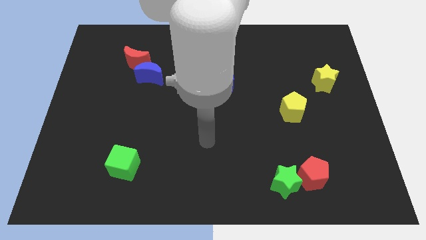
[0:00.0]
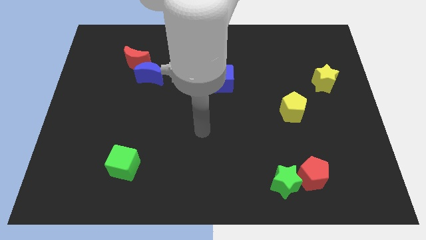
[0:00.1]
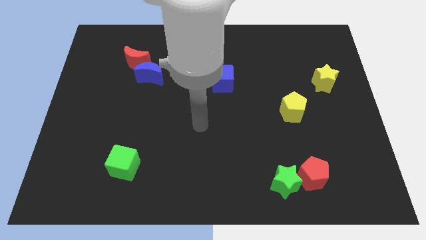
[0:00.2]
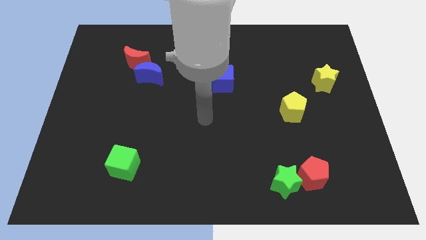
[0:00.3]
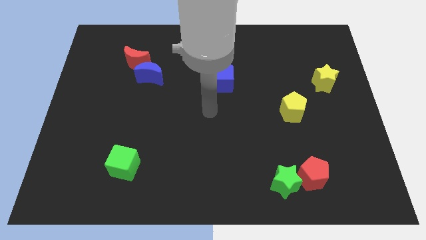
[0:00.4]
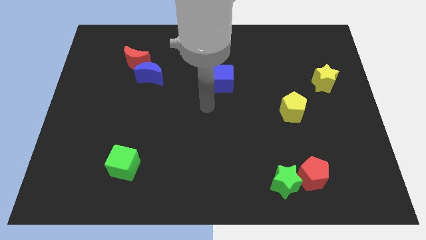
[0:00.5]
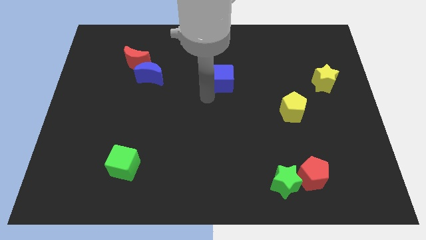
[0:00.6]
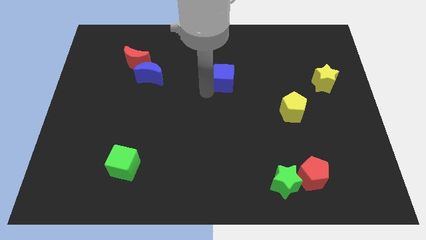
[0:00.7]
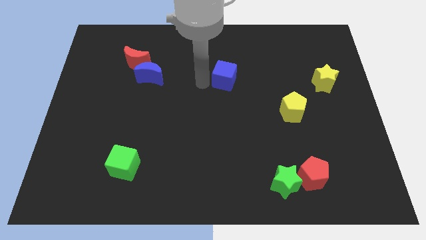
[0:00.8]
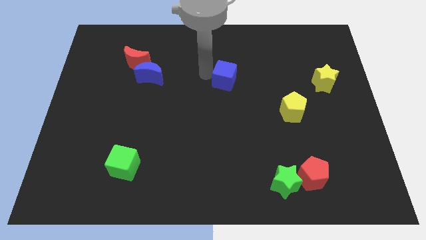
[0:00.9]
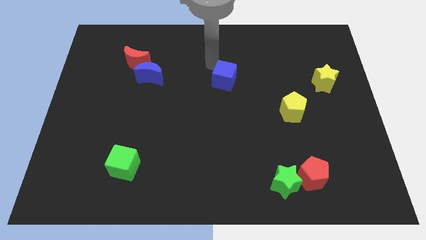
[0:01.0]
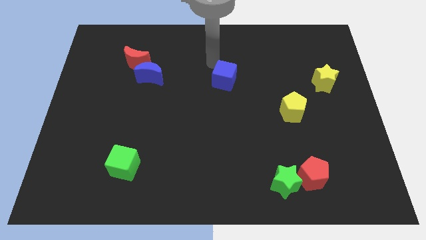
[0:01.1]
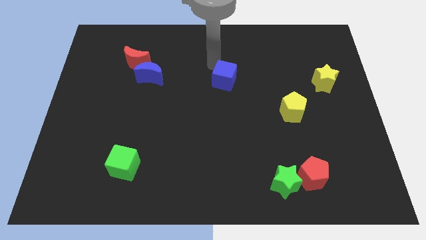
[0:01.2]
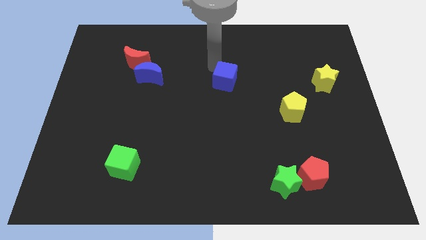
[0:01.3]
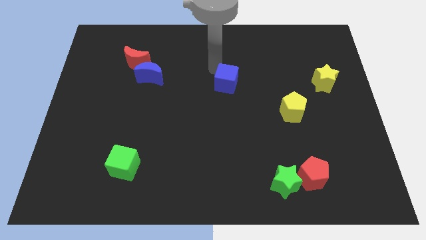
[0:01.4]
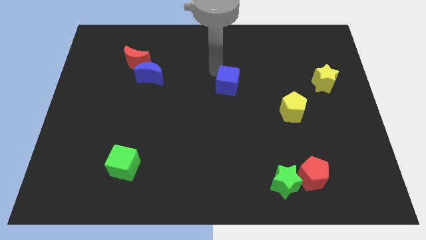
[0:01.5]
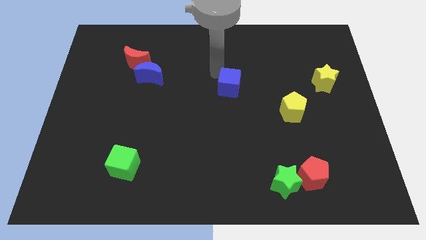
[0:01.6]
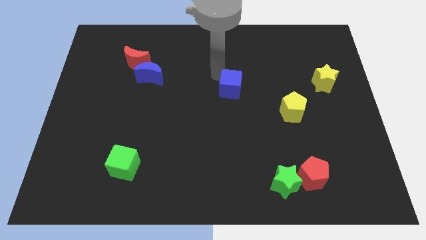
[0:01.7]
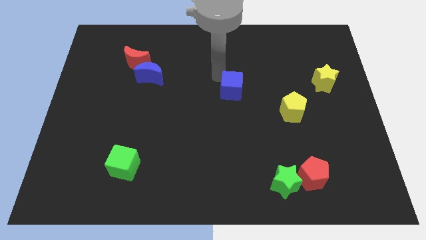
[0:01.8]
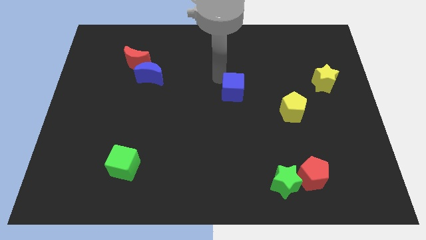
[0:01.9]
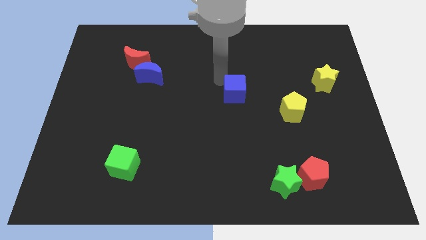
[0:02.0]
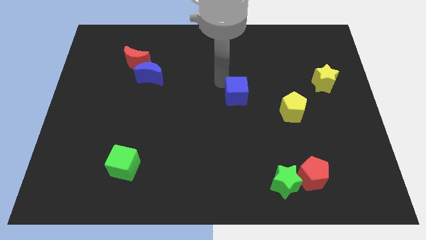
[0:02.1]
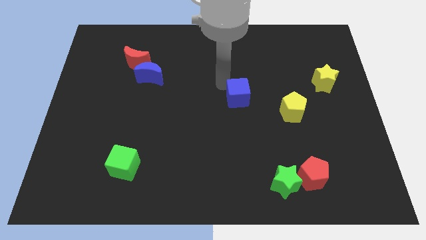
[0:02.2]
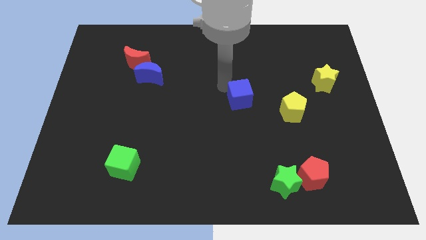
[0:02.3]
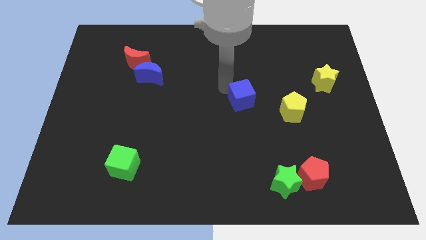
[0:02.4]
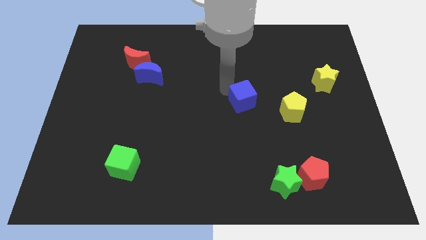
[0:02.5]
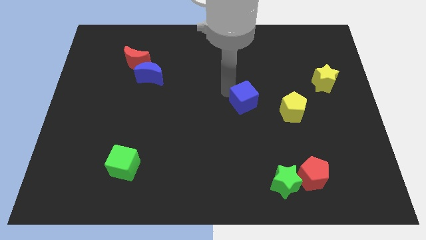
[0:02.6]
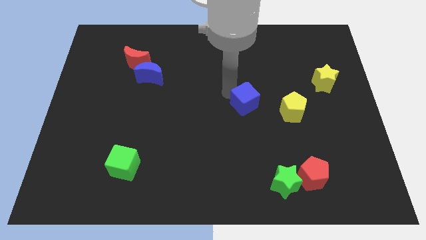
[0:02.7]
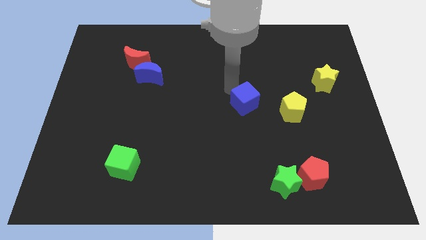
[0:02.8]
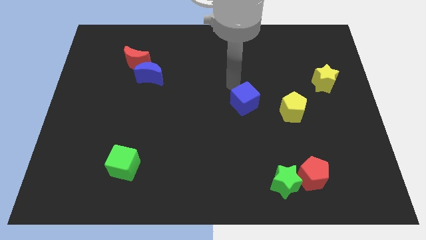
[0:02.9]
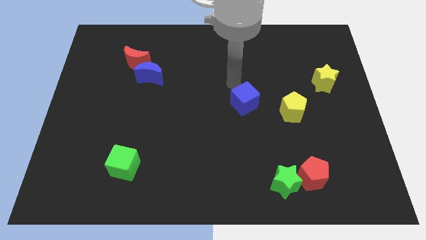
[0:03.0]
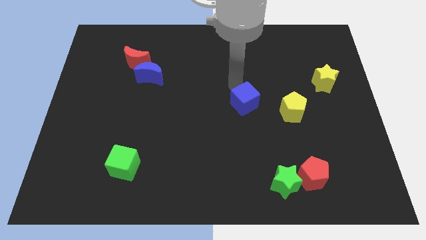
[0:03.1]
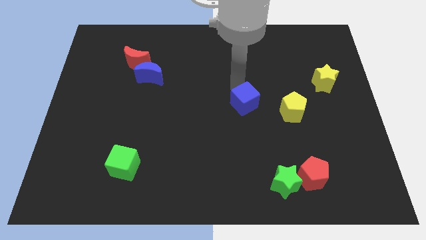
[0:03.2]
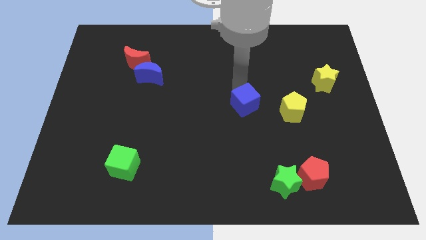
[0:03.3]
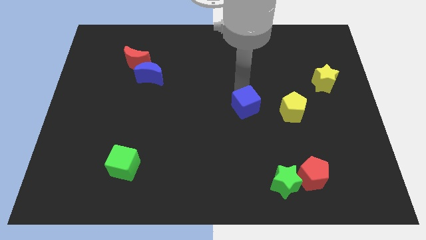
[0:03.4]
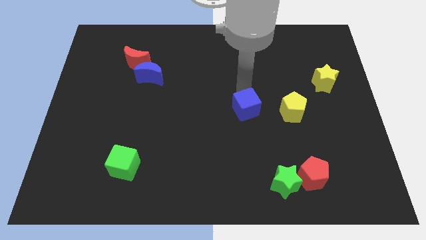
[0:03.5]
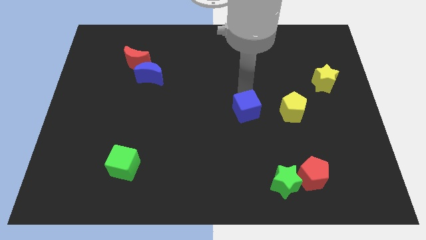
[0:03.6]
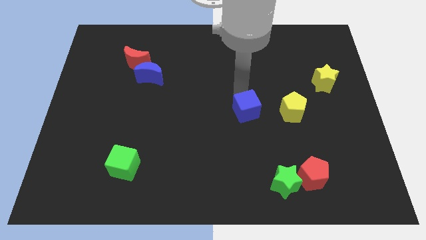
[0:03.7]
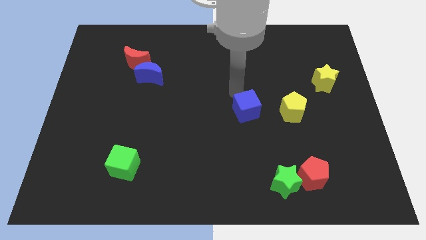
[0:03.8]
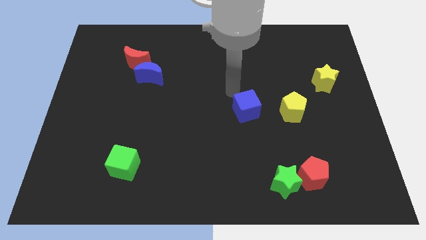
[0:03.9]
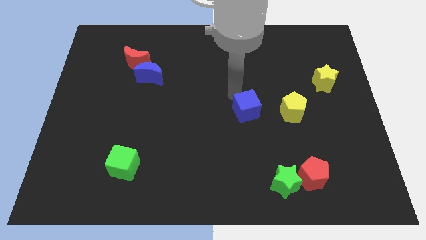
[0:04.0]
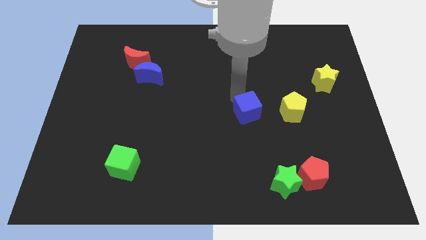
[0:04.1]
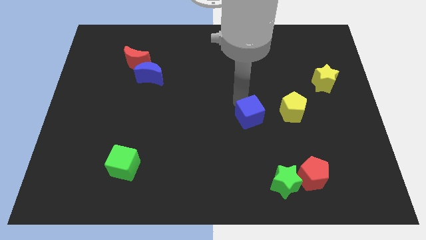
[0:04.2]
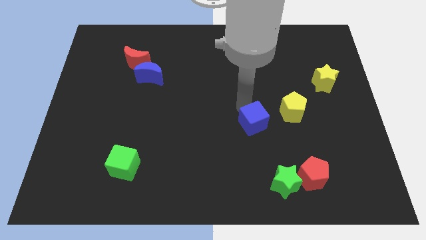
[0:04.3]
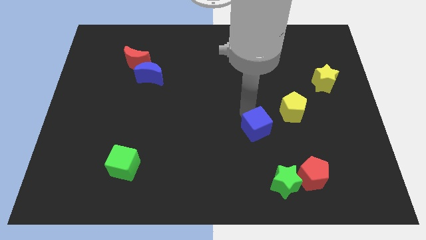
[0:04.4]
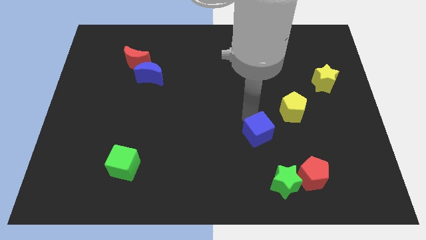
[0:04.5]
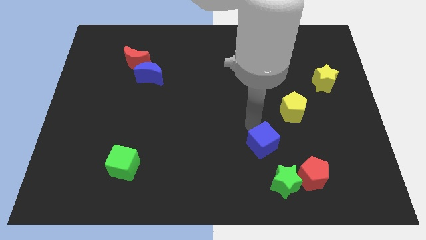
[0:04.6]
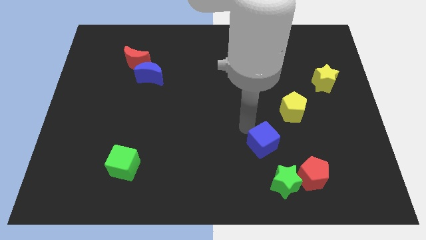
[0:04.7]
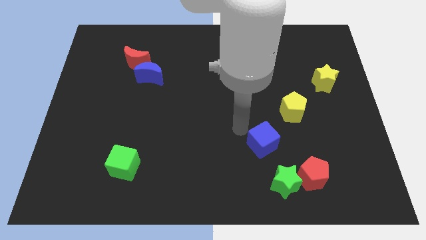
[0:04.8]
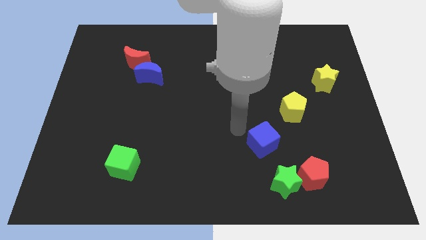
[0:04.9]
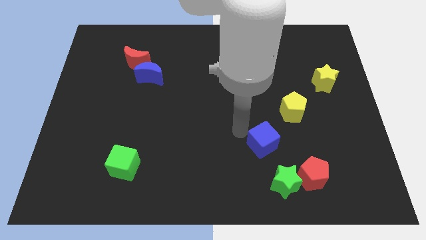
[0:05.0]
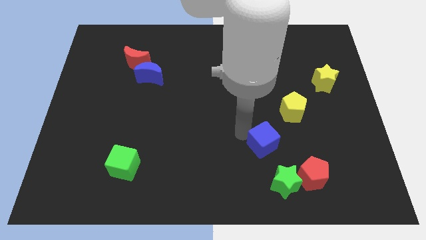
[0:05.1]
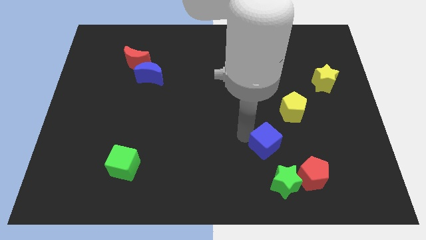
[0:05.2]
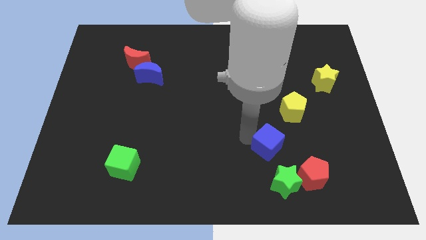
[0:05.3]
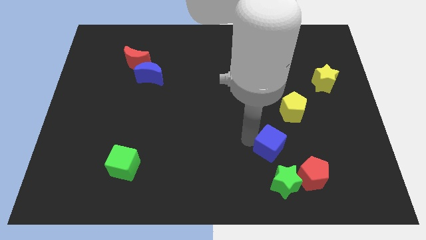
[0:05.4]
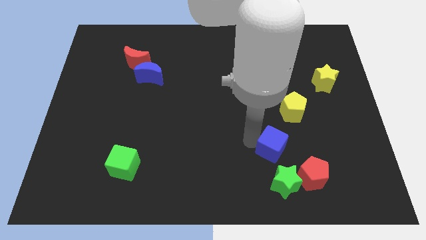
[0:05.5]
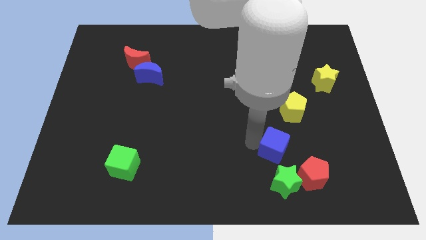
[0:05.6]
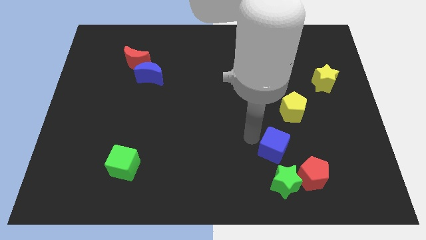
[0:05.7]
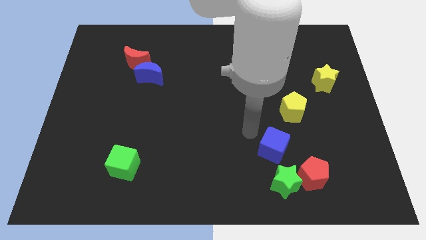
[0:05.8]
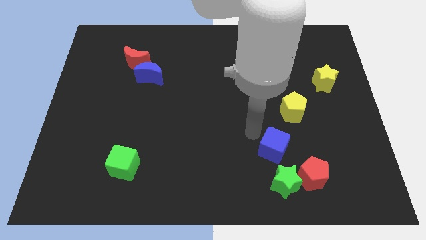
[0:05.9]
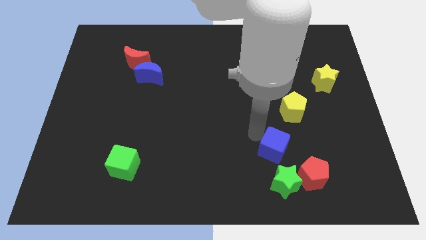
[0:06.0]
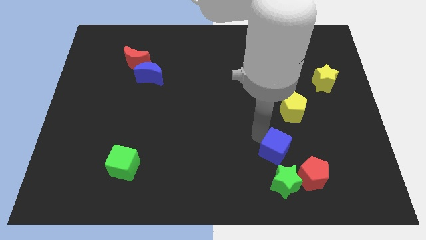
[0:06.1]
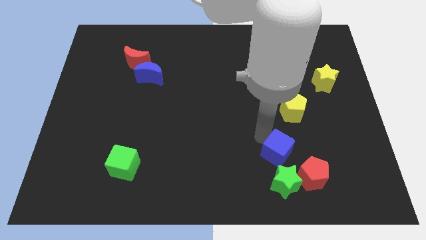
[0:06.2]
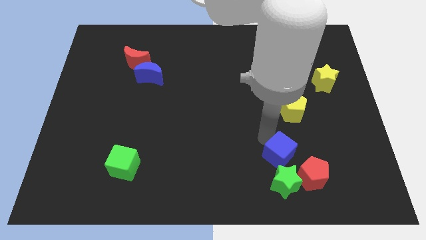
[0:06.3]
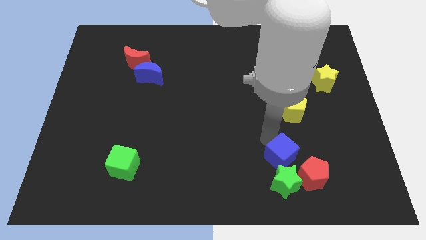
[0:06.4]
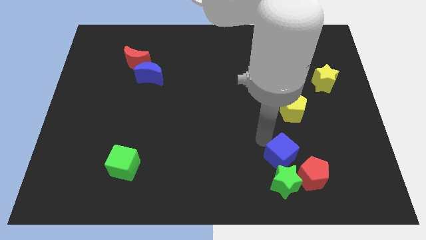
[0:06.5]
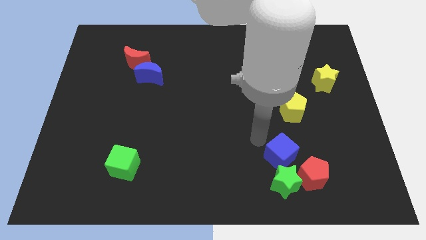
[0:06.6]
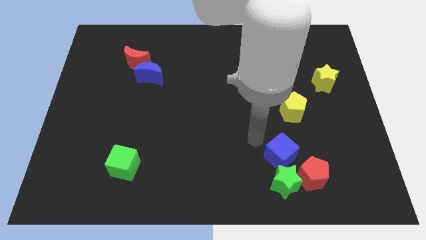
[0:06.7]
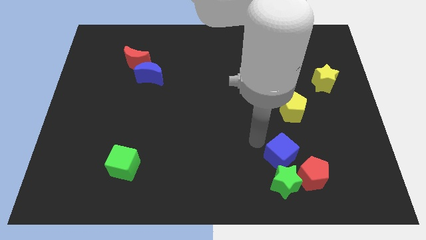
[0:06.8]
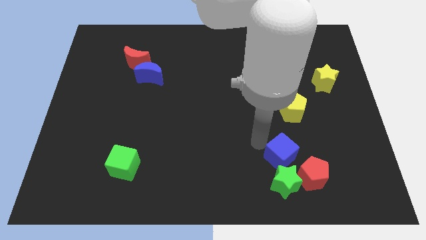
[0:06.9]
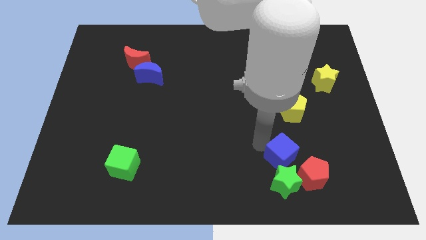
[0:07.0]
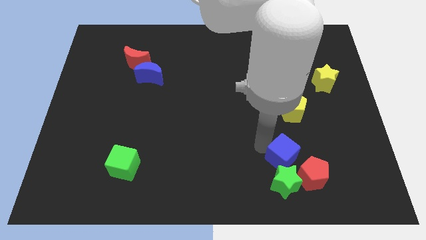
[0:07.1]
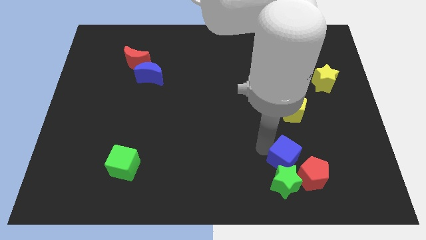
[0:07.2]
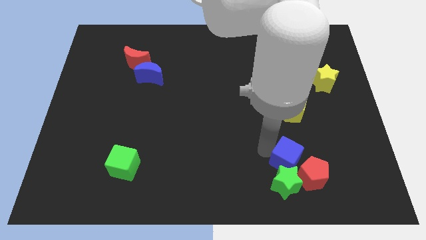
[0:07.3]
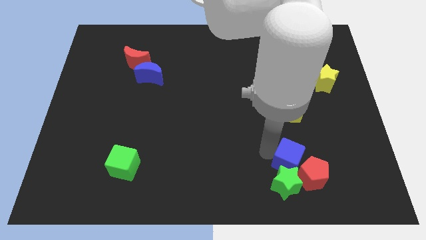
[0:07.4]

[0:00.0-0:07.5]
slide the blue cube towards the red pentagon
